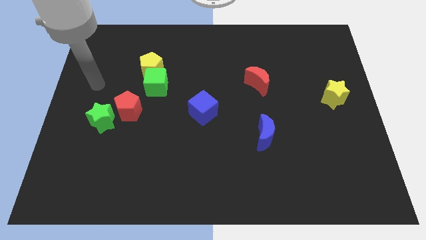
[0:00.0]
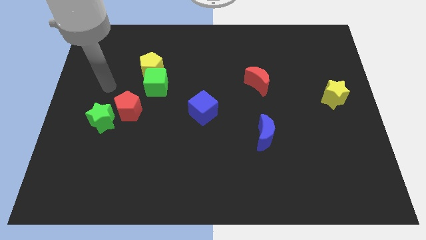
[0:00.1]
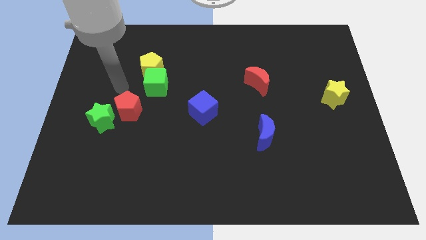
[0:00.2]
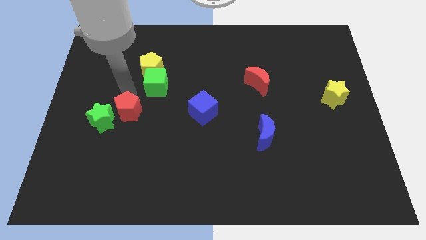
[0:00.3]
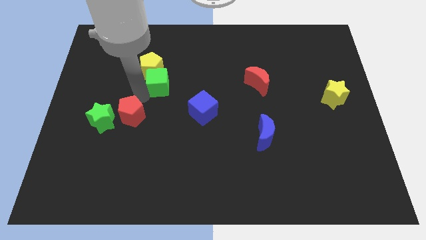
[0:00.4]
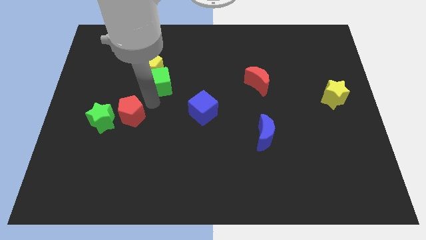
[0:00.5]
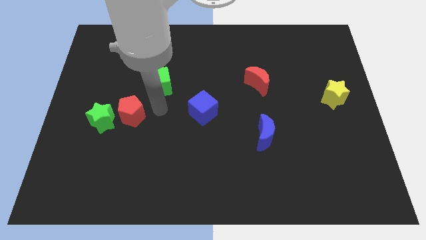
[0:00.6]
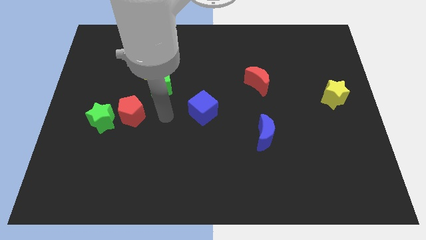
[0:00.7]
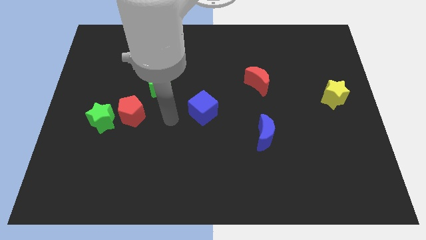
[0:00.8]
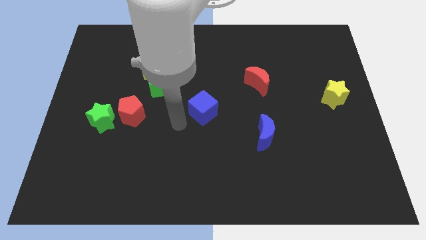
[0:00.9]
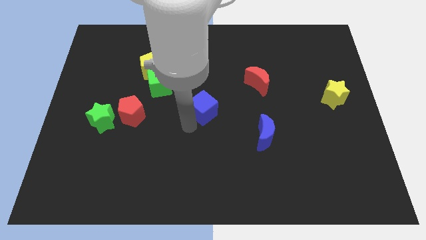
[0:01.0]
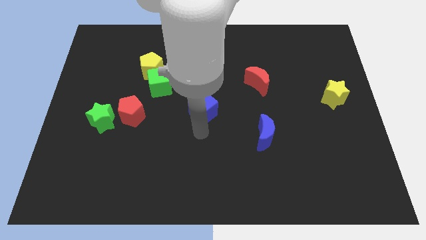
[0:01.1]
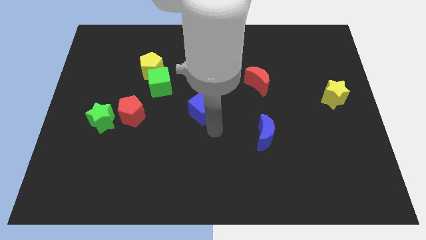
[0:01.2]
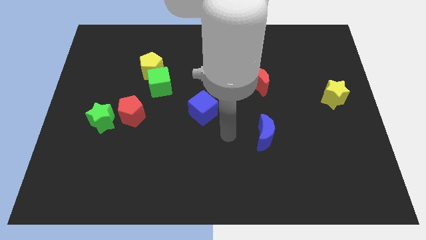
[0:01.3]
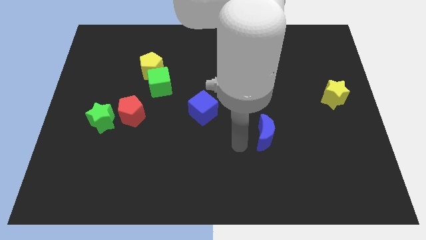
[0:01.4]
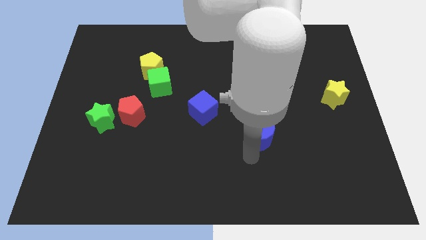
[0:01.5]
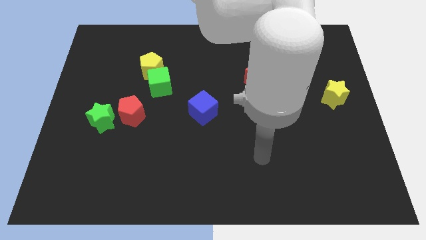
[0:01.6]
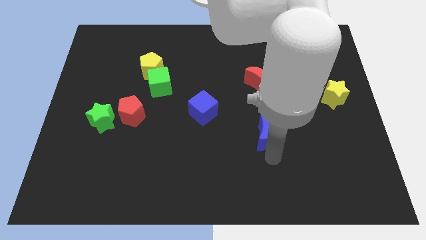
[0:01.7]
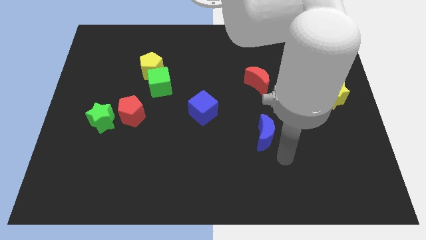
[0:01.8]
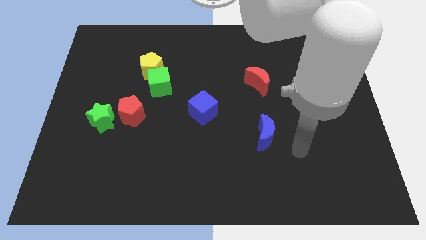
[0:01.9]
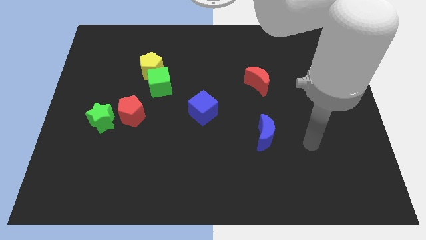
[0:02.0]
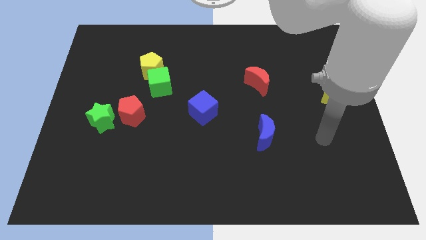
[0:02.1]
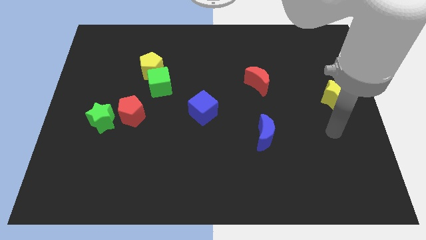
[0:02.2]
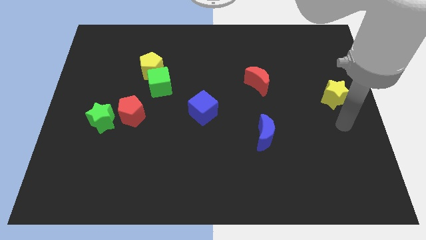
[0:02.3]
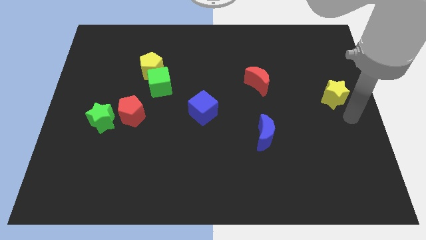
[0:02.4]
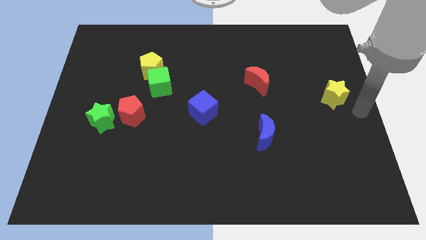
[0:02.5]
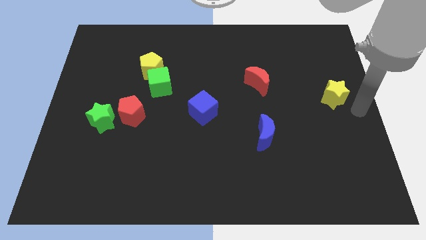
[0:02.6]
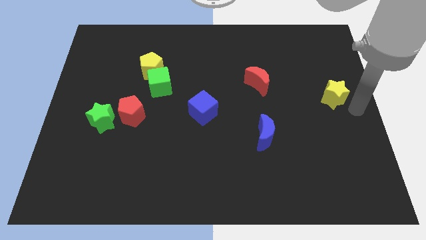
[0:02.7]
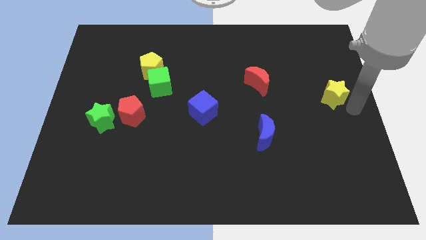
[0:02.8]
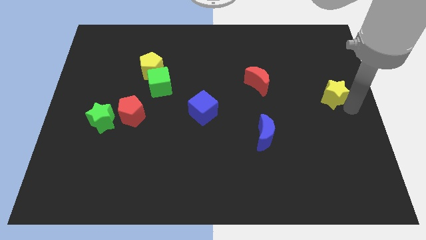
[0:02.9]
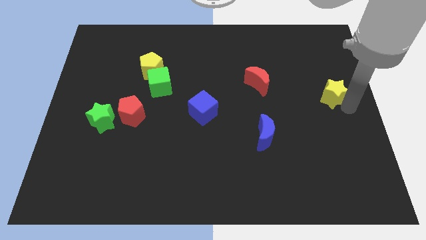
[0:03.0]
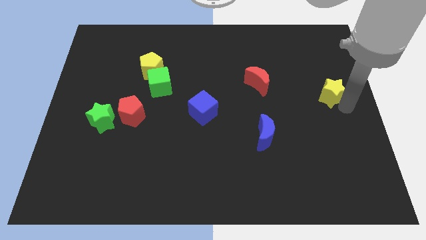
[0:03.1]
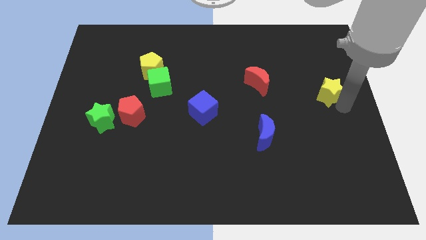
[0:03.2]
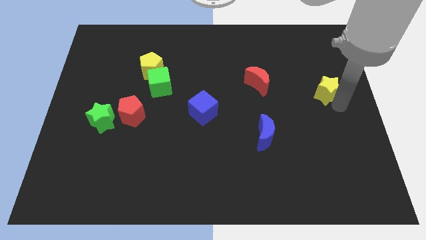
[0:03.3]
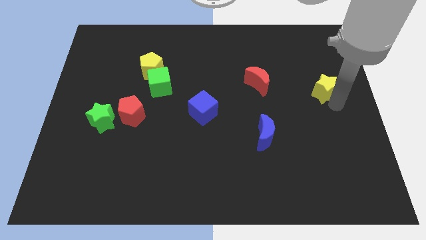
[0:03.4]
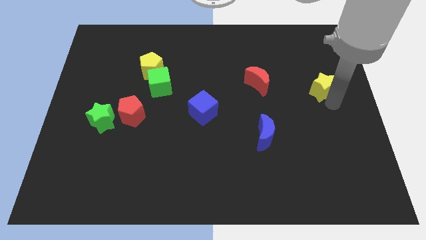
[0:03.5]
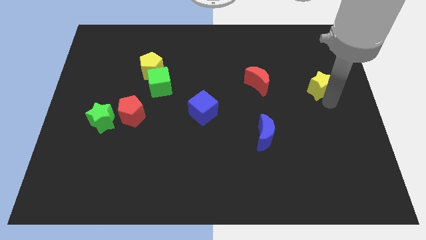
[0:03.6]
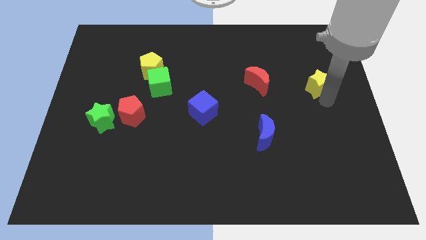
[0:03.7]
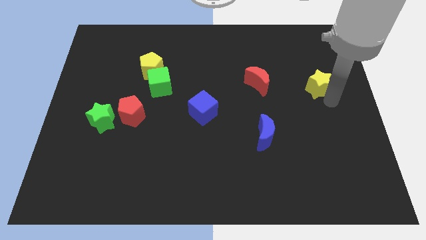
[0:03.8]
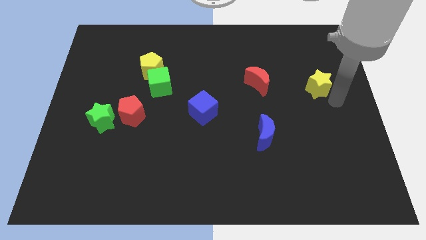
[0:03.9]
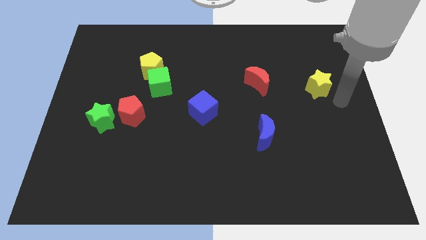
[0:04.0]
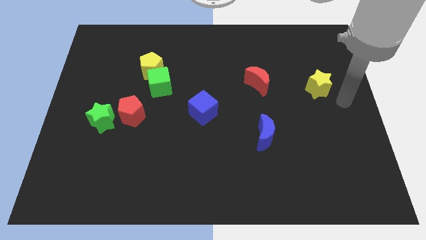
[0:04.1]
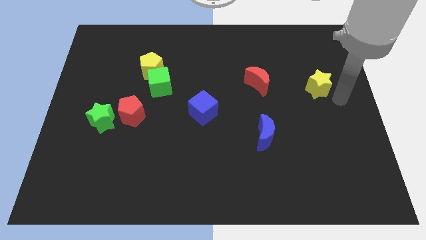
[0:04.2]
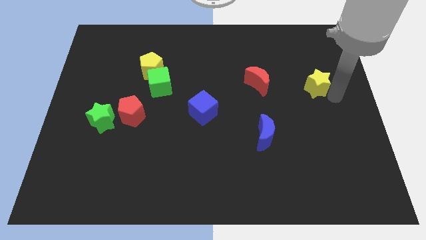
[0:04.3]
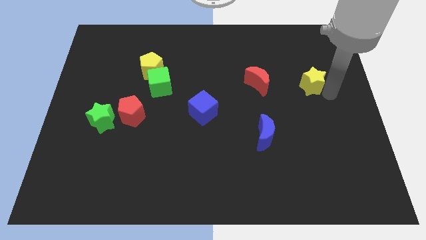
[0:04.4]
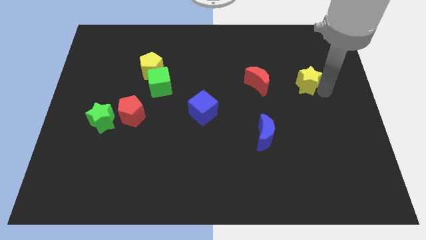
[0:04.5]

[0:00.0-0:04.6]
slightly move the yellow star up and left diagonally

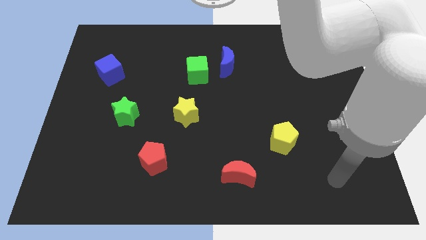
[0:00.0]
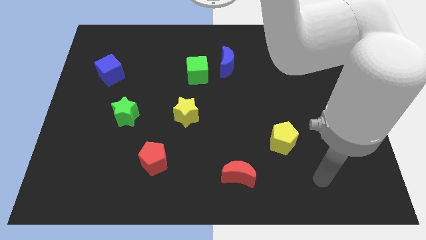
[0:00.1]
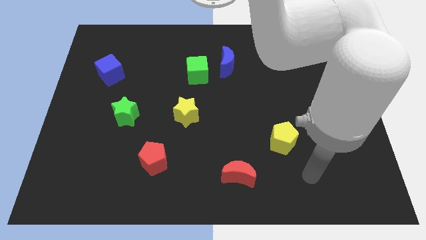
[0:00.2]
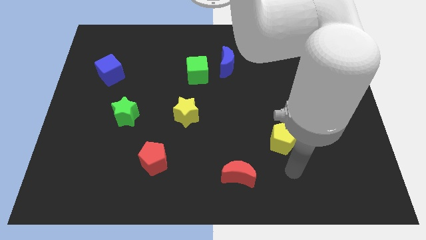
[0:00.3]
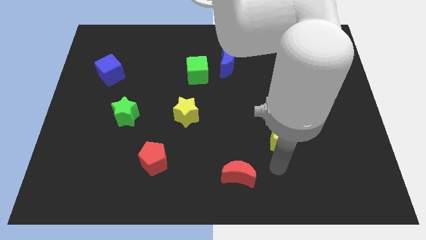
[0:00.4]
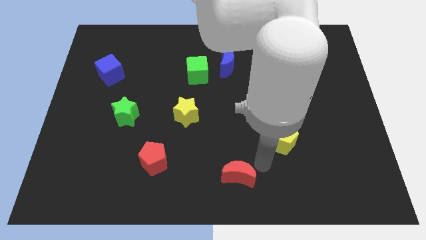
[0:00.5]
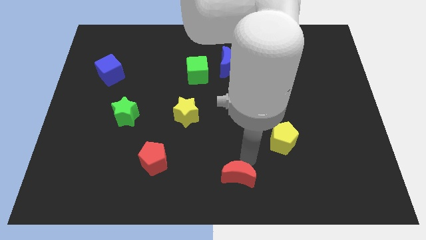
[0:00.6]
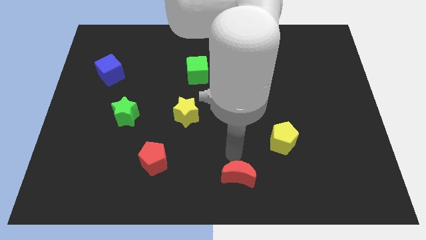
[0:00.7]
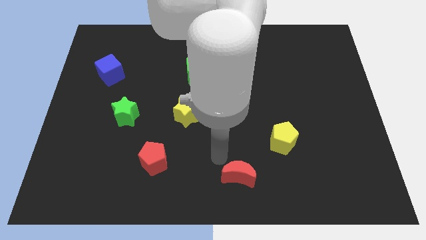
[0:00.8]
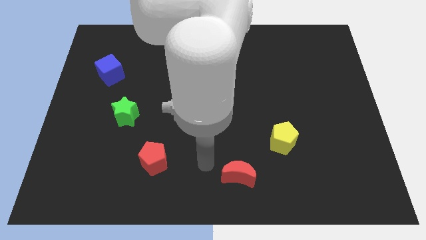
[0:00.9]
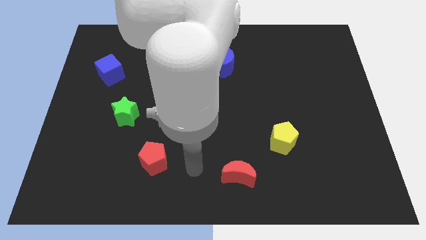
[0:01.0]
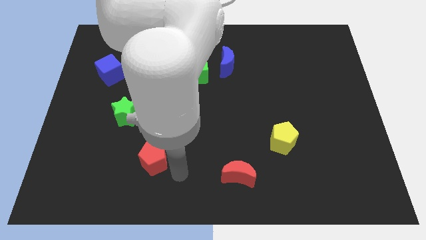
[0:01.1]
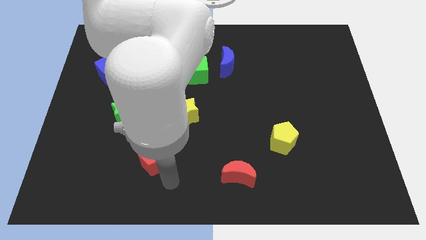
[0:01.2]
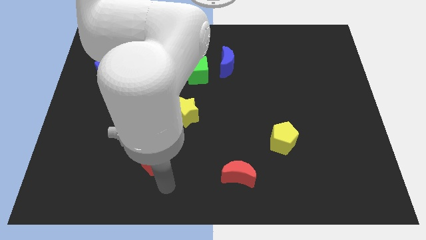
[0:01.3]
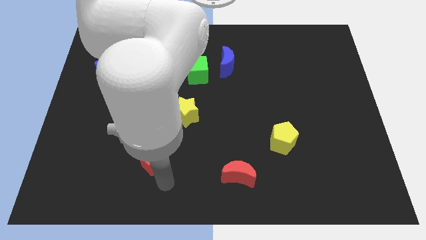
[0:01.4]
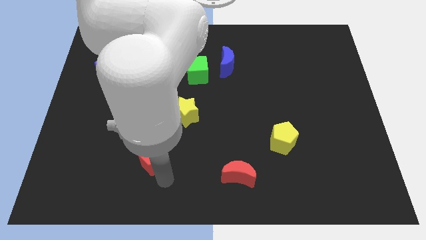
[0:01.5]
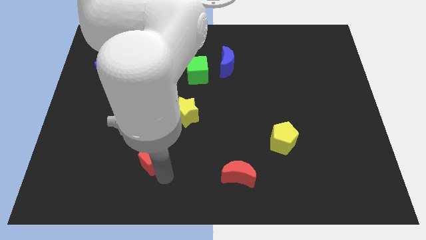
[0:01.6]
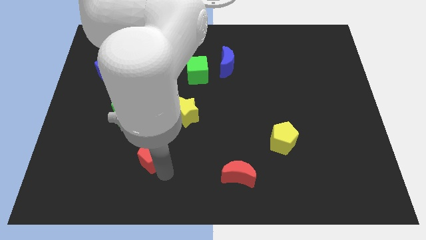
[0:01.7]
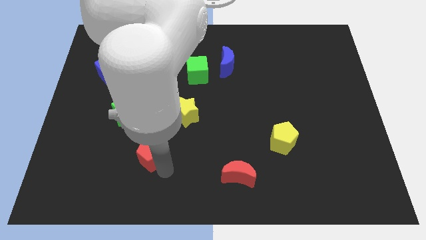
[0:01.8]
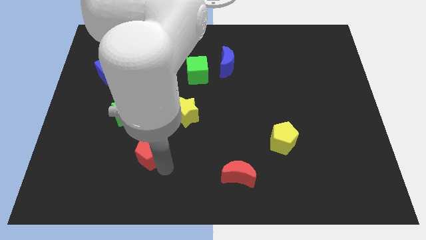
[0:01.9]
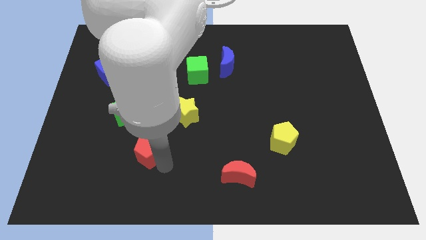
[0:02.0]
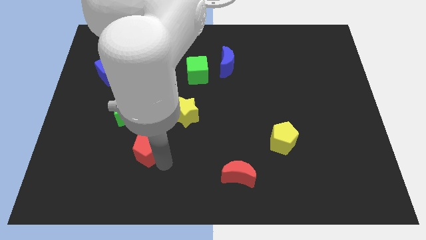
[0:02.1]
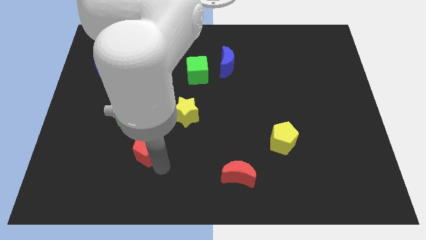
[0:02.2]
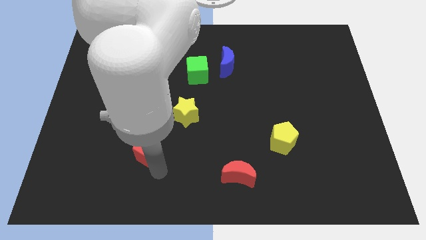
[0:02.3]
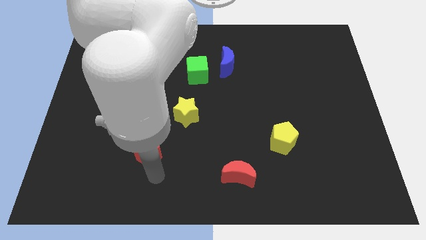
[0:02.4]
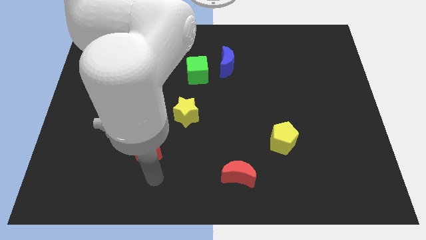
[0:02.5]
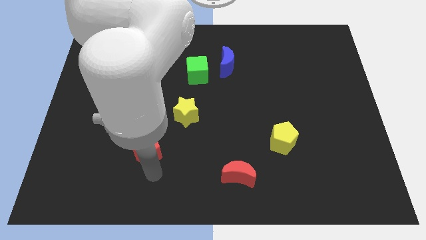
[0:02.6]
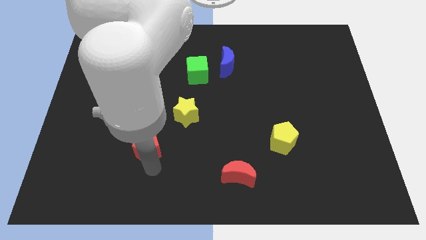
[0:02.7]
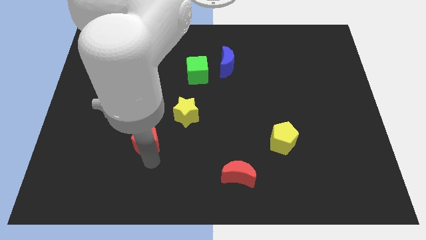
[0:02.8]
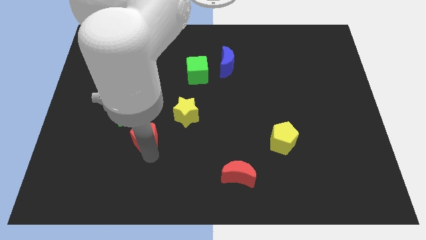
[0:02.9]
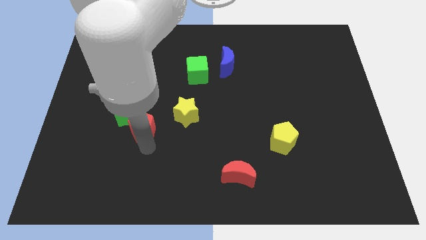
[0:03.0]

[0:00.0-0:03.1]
push the red pentagon a little bit up

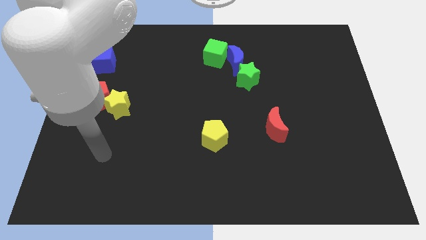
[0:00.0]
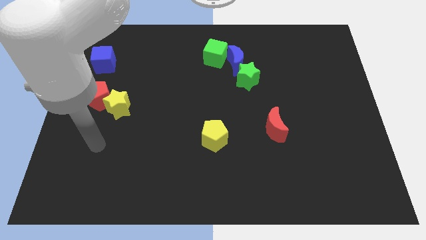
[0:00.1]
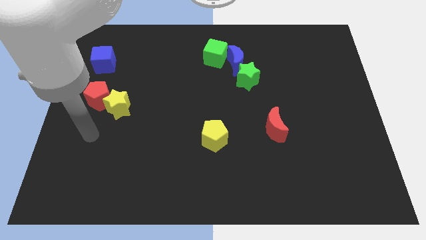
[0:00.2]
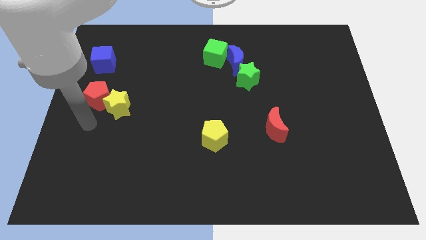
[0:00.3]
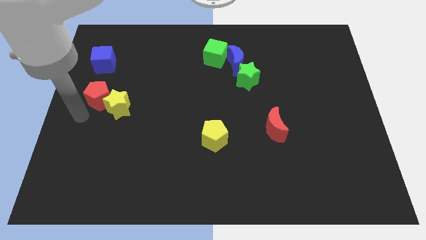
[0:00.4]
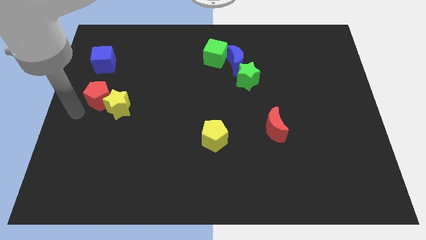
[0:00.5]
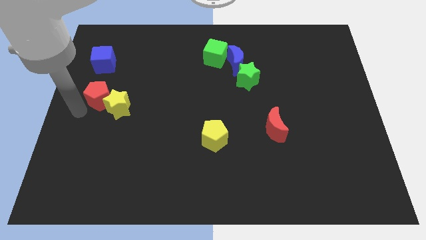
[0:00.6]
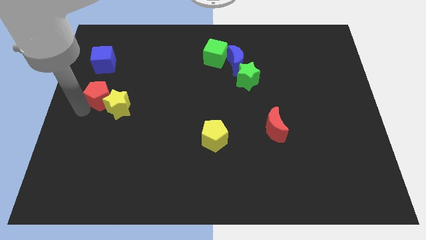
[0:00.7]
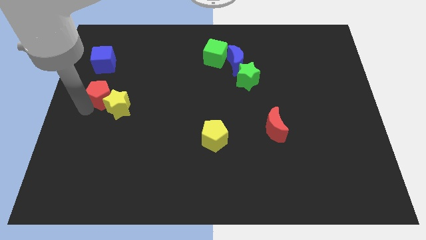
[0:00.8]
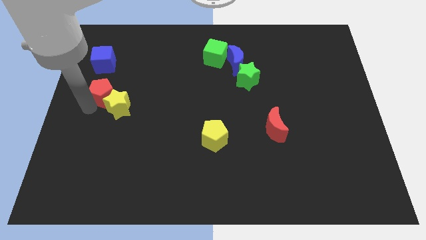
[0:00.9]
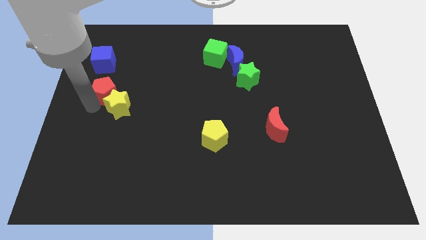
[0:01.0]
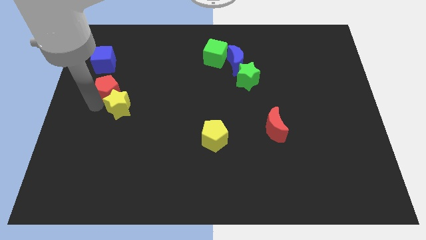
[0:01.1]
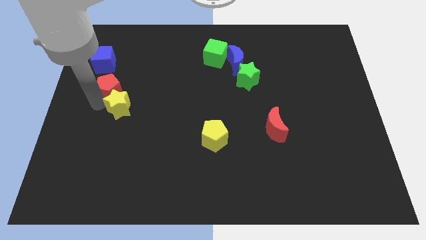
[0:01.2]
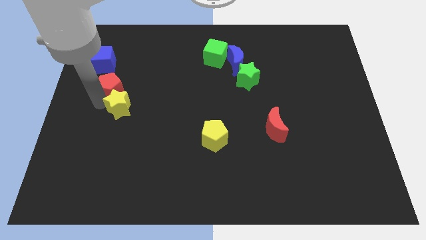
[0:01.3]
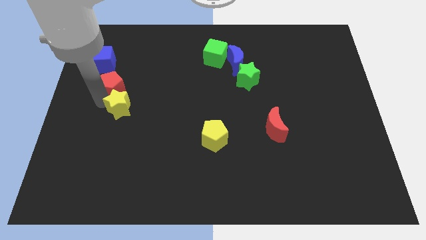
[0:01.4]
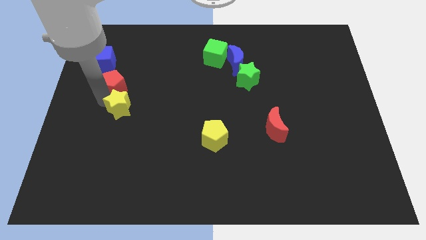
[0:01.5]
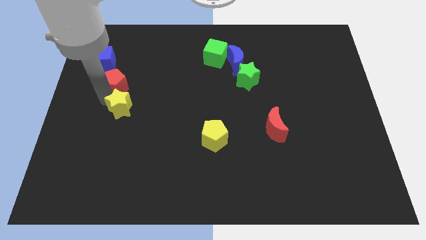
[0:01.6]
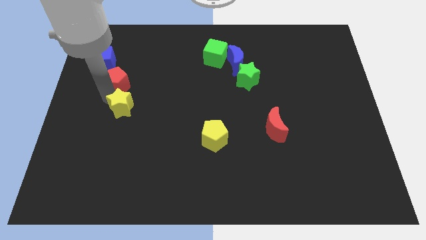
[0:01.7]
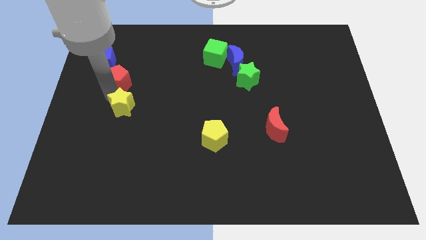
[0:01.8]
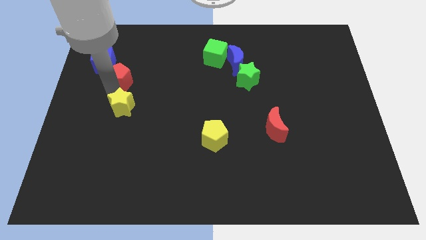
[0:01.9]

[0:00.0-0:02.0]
push the red pentagon a little bit up and then to the right
